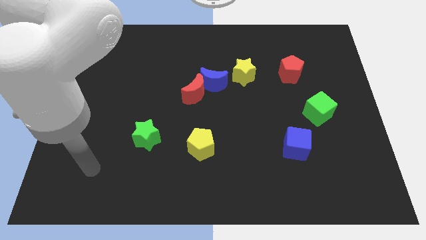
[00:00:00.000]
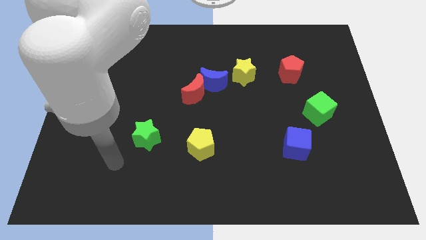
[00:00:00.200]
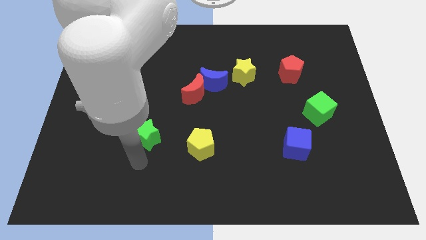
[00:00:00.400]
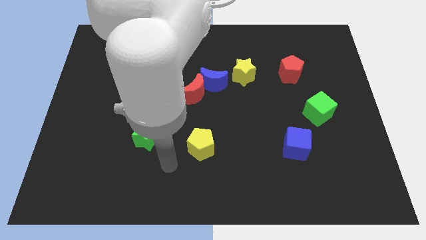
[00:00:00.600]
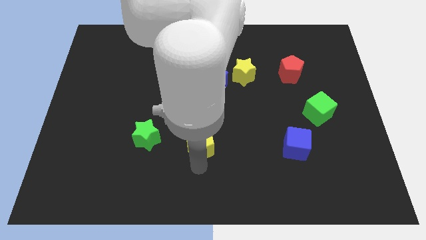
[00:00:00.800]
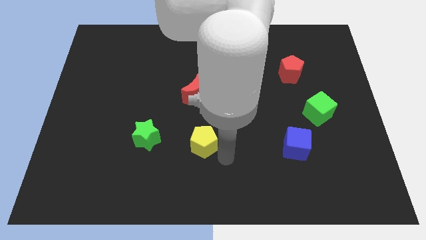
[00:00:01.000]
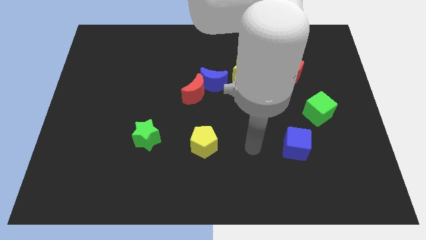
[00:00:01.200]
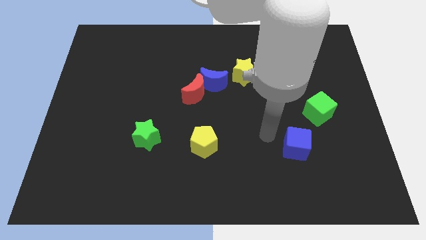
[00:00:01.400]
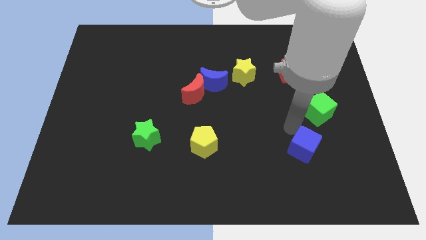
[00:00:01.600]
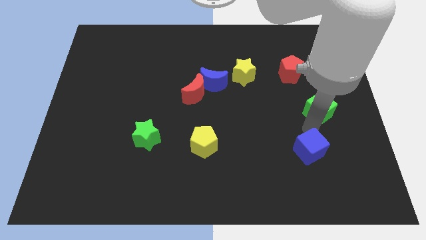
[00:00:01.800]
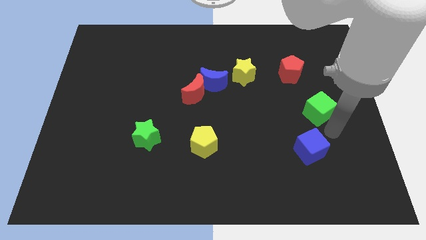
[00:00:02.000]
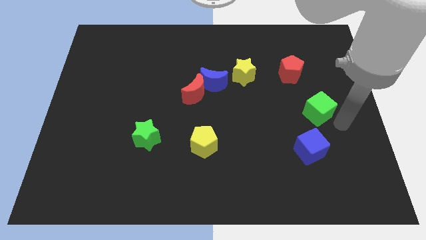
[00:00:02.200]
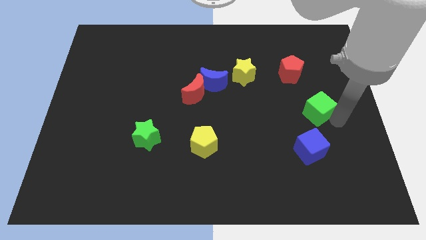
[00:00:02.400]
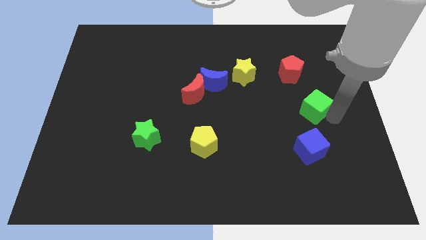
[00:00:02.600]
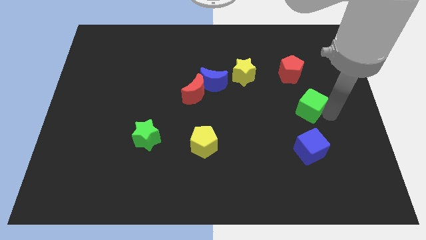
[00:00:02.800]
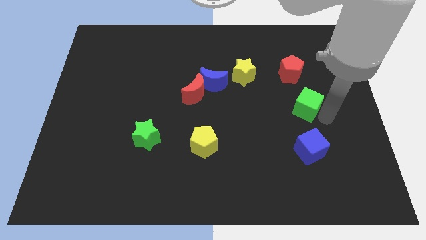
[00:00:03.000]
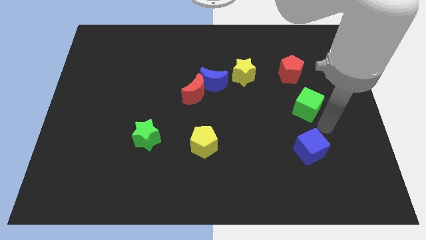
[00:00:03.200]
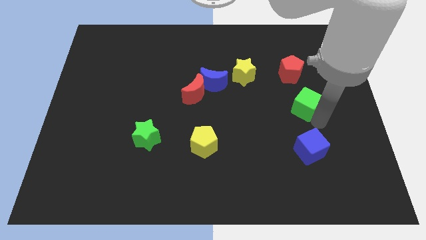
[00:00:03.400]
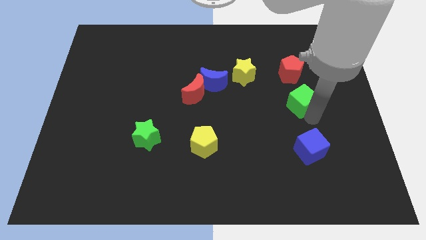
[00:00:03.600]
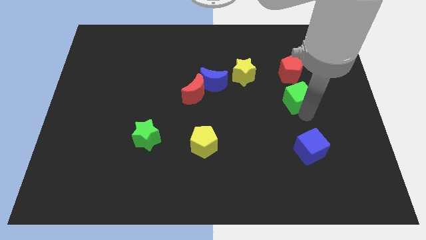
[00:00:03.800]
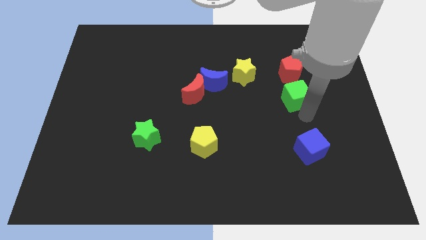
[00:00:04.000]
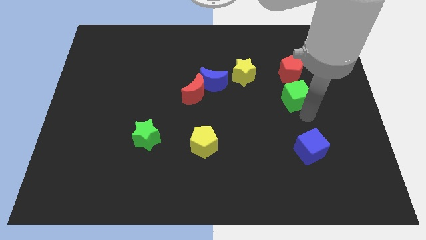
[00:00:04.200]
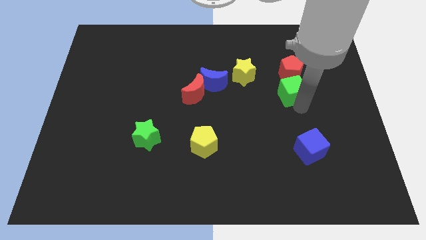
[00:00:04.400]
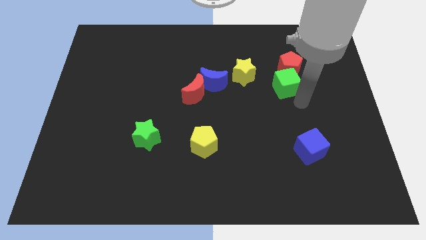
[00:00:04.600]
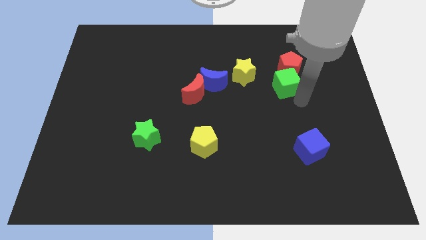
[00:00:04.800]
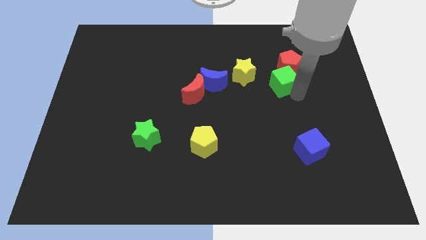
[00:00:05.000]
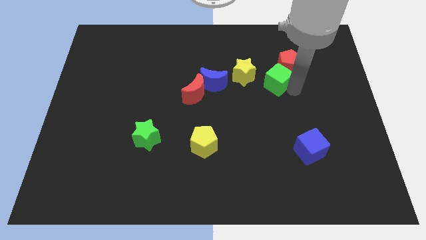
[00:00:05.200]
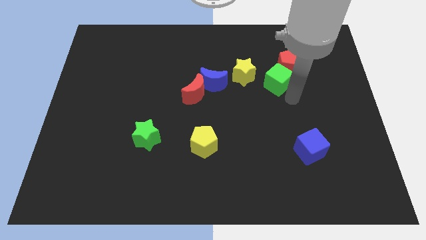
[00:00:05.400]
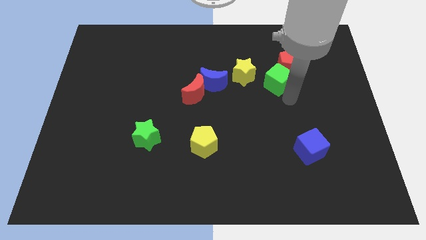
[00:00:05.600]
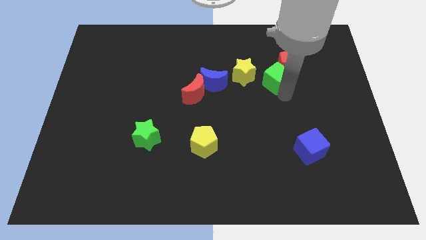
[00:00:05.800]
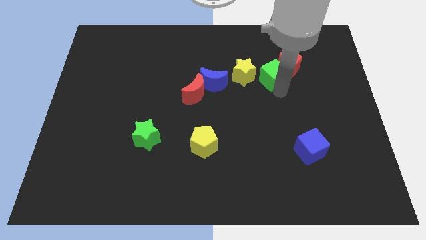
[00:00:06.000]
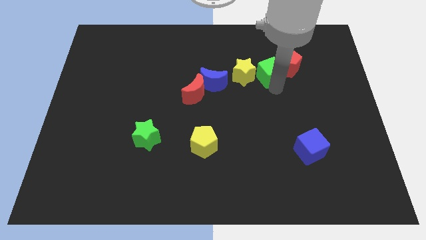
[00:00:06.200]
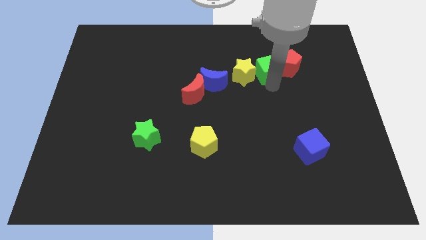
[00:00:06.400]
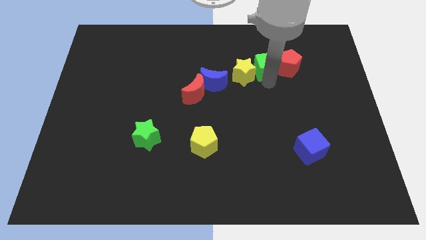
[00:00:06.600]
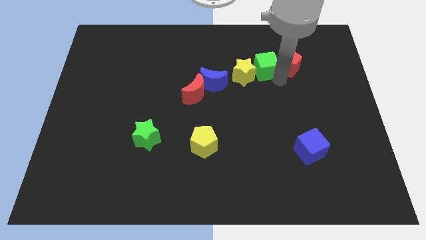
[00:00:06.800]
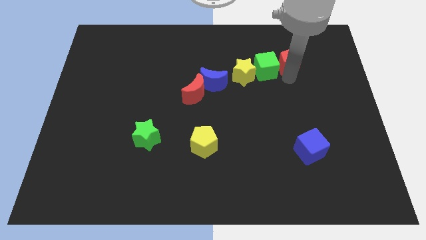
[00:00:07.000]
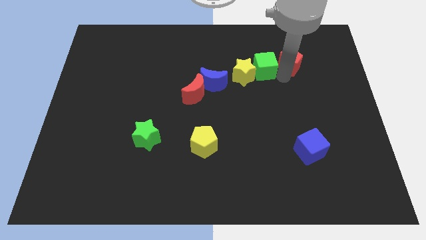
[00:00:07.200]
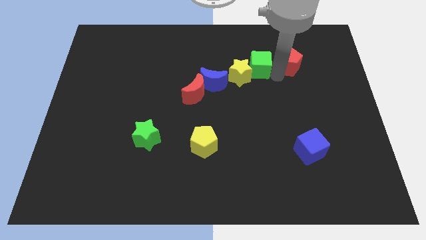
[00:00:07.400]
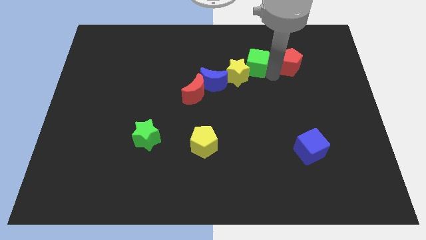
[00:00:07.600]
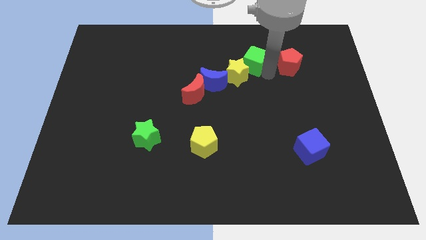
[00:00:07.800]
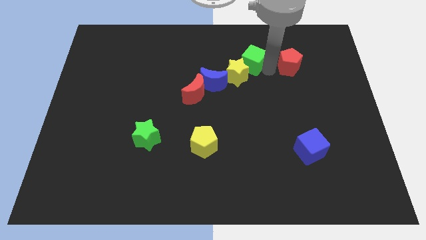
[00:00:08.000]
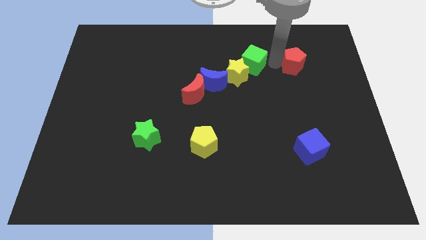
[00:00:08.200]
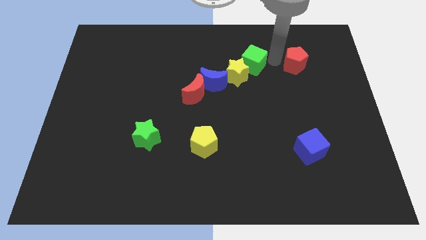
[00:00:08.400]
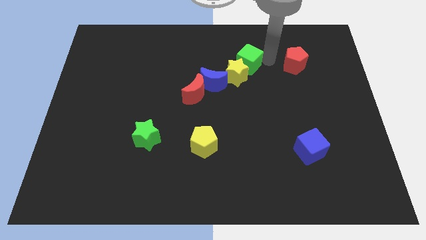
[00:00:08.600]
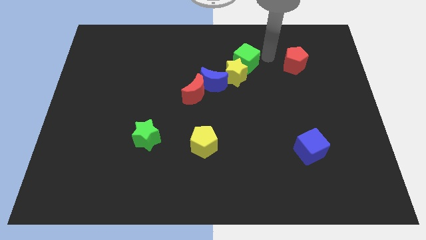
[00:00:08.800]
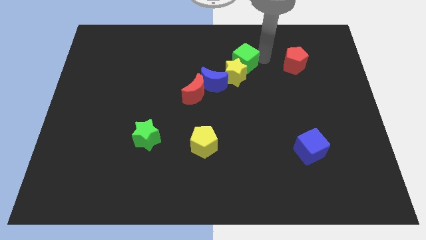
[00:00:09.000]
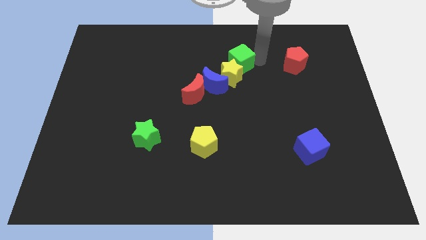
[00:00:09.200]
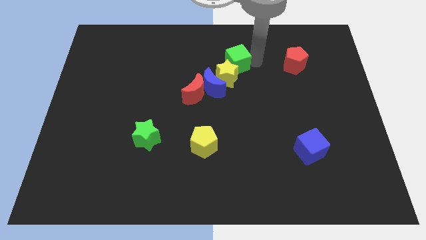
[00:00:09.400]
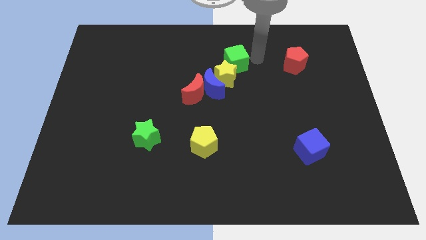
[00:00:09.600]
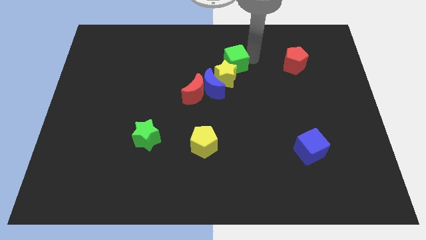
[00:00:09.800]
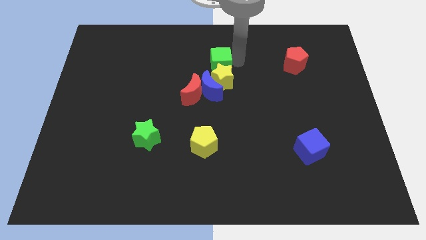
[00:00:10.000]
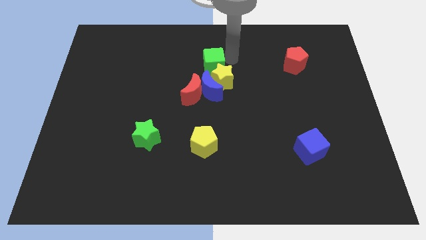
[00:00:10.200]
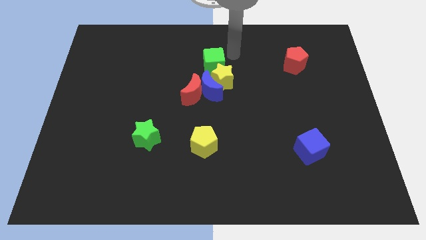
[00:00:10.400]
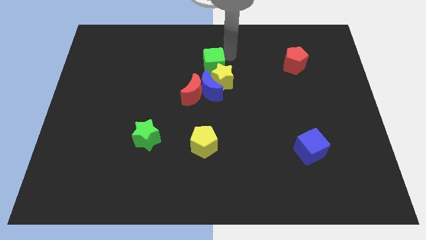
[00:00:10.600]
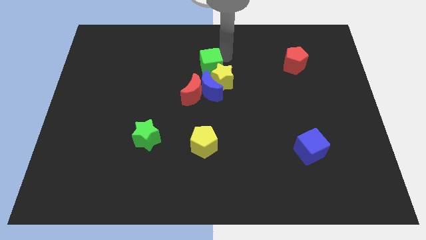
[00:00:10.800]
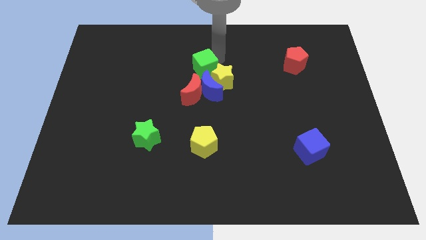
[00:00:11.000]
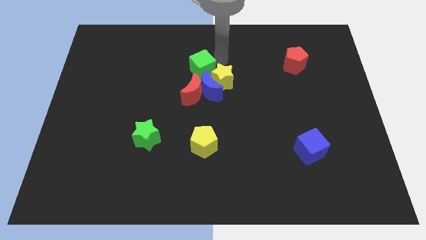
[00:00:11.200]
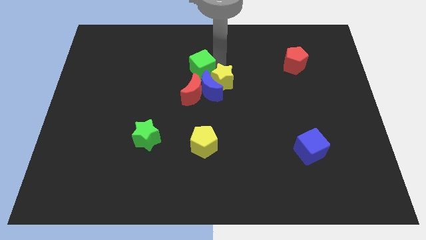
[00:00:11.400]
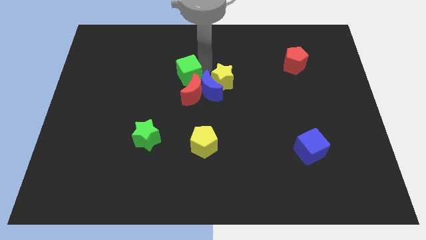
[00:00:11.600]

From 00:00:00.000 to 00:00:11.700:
push the green cube to the top left side of the red moon

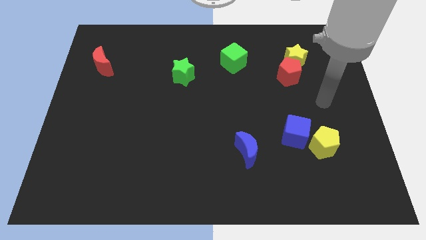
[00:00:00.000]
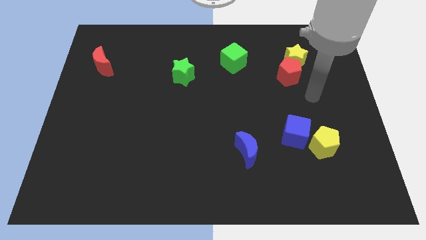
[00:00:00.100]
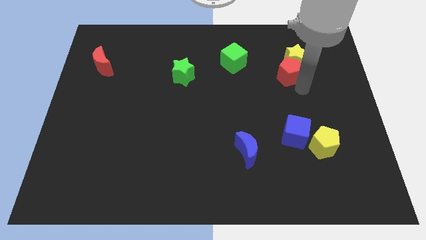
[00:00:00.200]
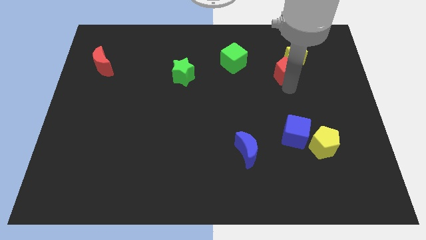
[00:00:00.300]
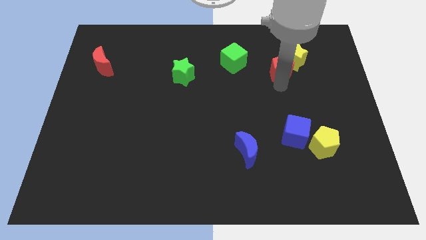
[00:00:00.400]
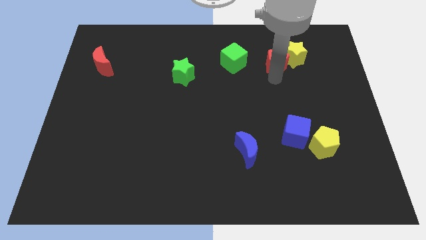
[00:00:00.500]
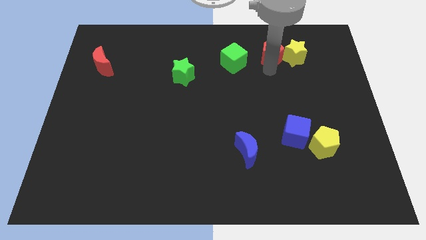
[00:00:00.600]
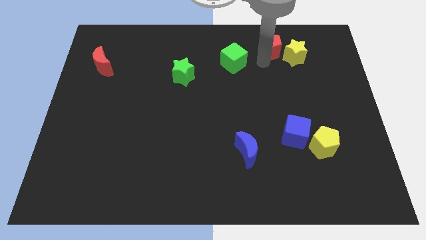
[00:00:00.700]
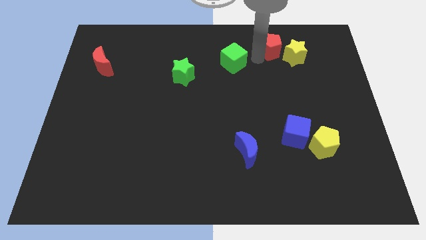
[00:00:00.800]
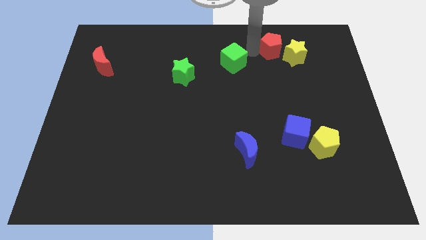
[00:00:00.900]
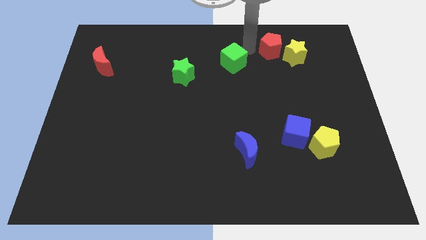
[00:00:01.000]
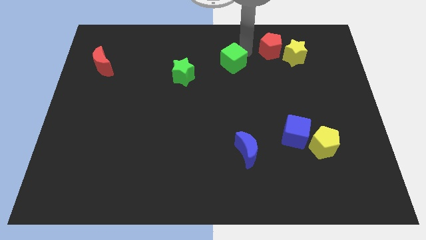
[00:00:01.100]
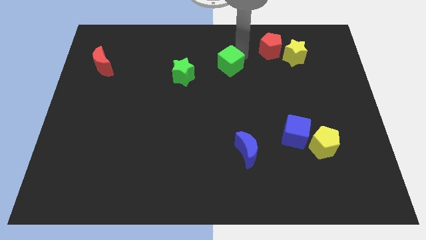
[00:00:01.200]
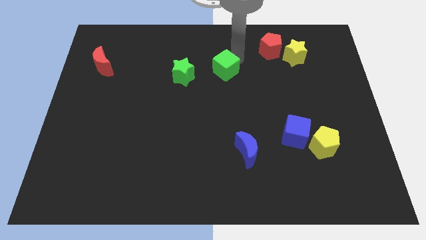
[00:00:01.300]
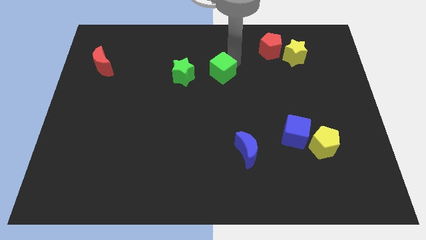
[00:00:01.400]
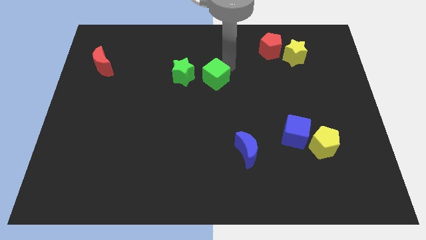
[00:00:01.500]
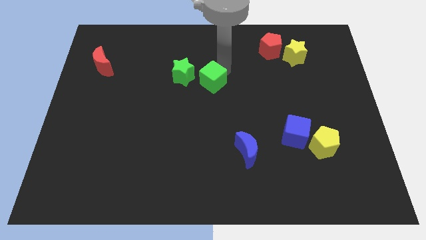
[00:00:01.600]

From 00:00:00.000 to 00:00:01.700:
slide the green cube to the bottom right of the green star
